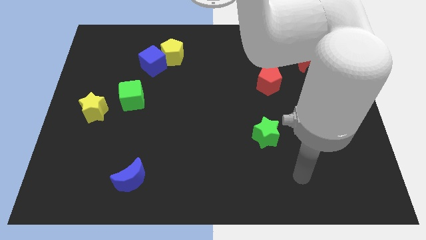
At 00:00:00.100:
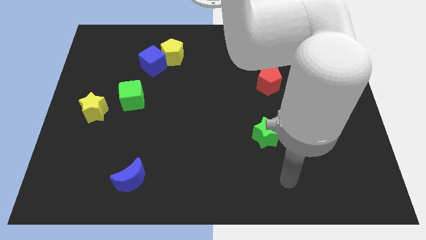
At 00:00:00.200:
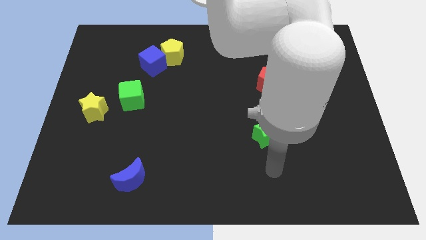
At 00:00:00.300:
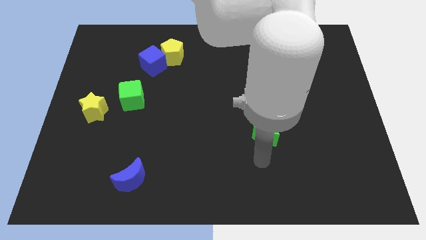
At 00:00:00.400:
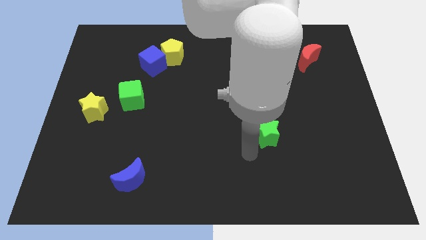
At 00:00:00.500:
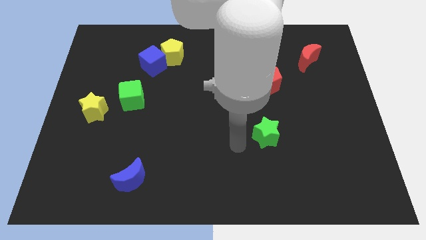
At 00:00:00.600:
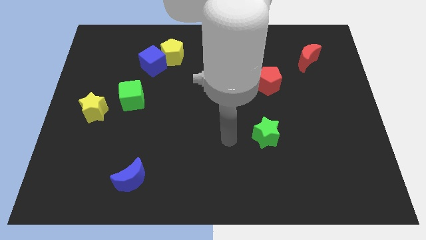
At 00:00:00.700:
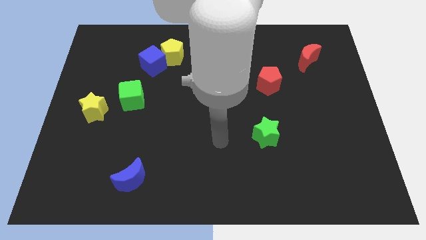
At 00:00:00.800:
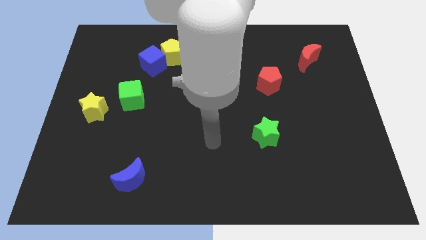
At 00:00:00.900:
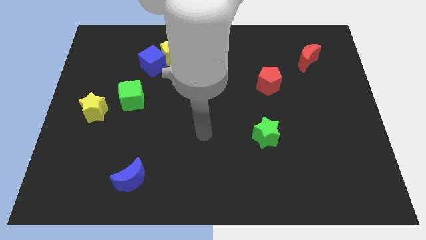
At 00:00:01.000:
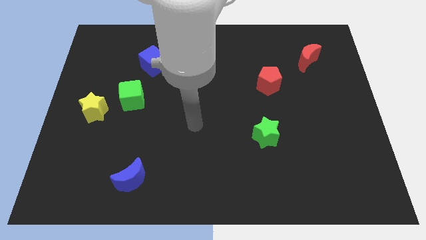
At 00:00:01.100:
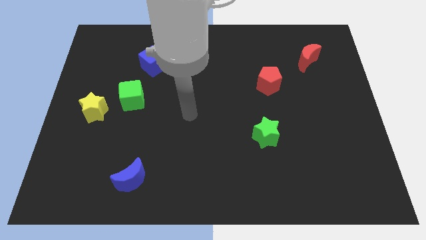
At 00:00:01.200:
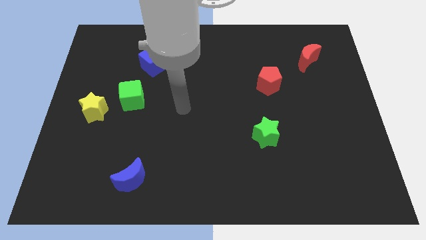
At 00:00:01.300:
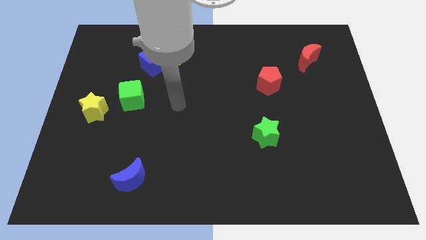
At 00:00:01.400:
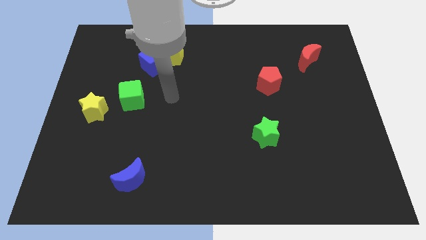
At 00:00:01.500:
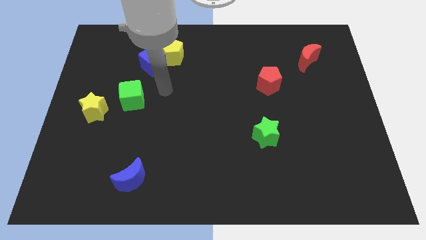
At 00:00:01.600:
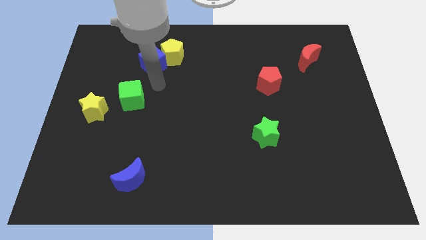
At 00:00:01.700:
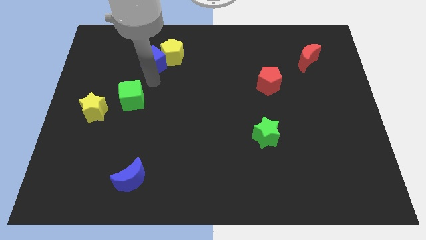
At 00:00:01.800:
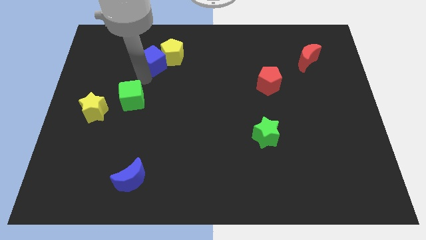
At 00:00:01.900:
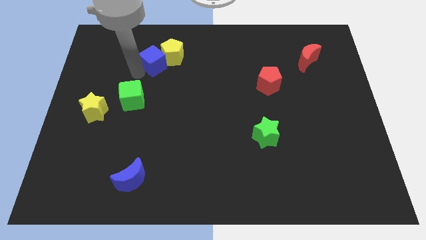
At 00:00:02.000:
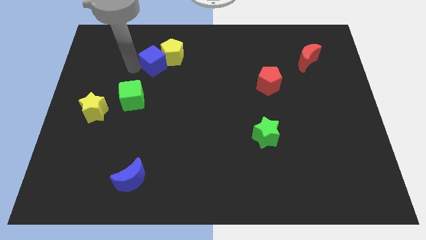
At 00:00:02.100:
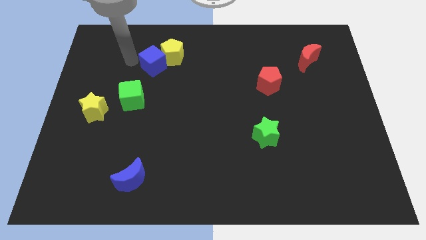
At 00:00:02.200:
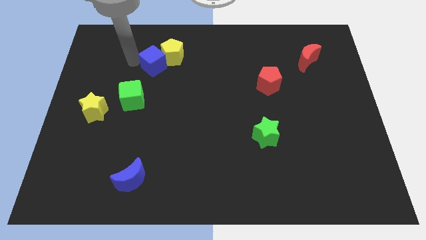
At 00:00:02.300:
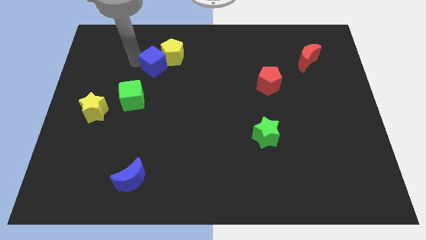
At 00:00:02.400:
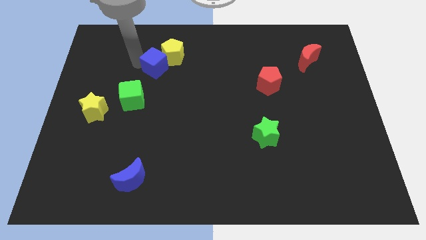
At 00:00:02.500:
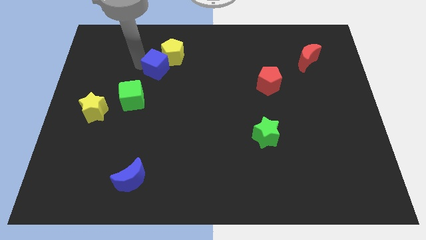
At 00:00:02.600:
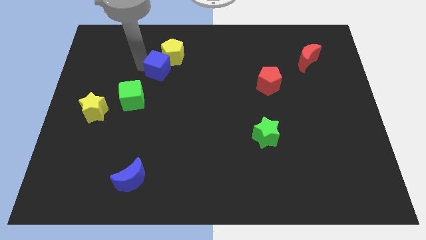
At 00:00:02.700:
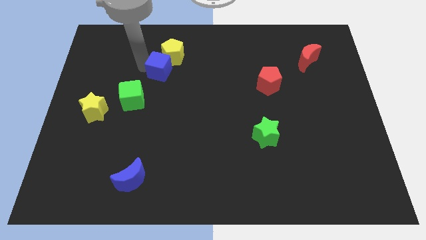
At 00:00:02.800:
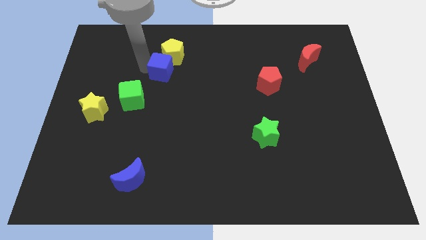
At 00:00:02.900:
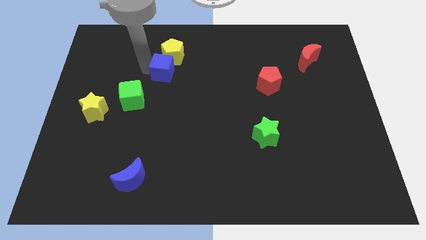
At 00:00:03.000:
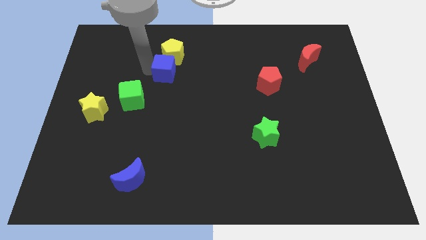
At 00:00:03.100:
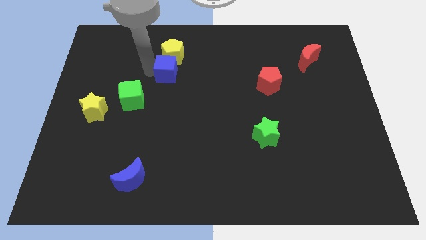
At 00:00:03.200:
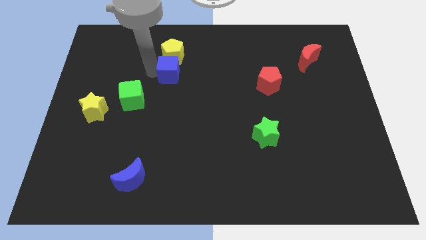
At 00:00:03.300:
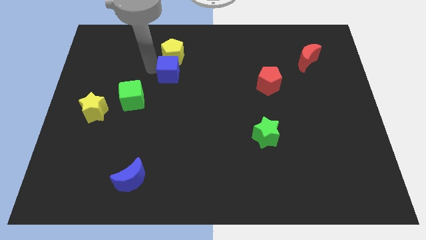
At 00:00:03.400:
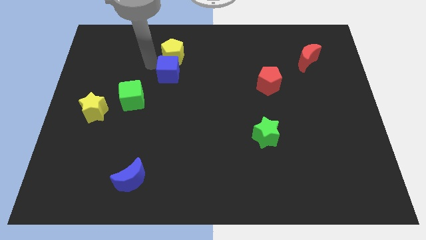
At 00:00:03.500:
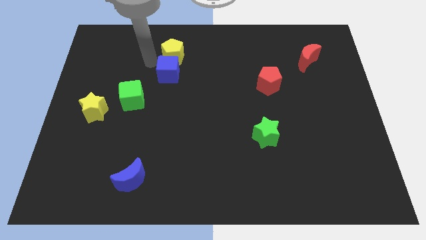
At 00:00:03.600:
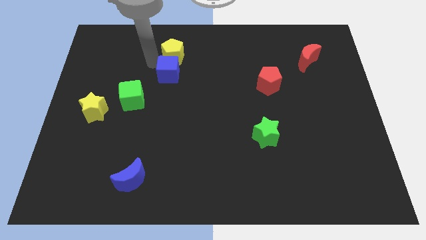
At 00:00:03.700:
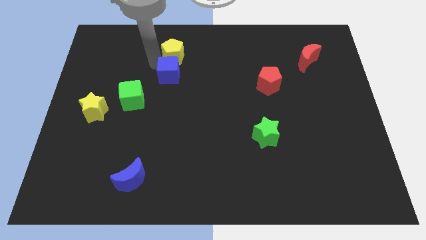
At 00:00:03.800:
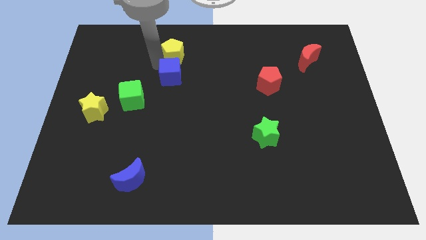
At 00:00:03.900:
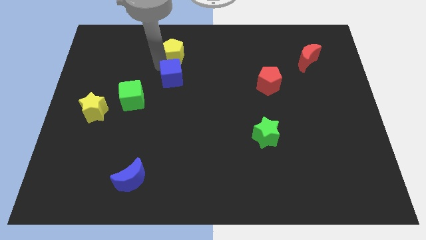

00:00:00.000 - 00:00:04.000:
move the blue cube downwards and to the right somewhat

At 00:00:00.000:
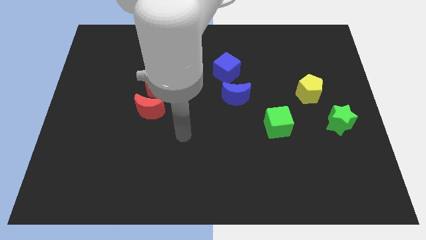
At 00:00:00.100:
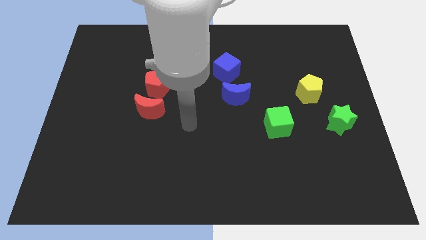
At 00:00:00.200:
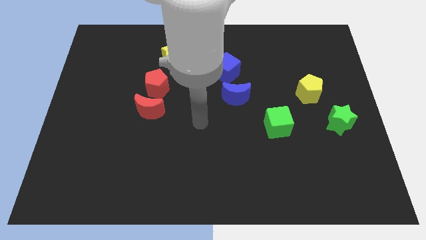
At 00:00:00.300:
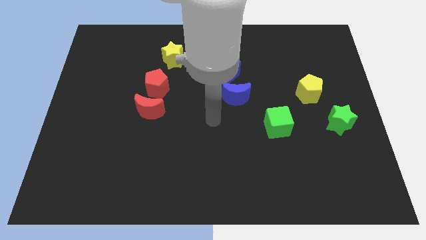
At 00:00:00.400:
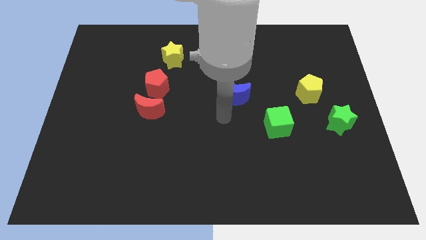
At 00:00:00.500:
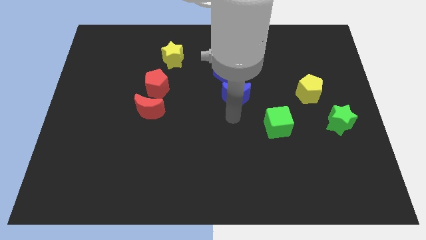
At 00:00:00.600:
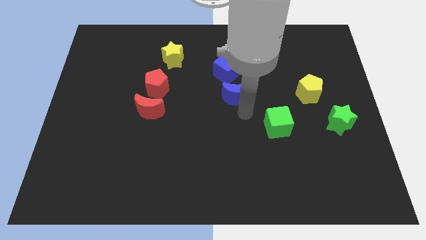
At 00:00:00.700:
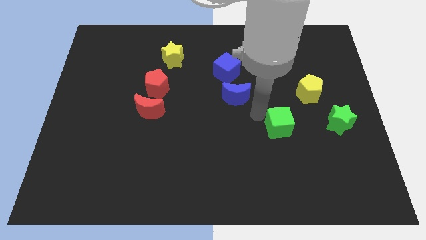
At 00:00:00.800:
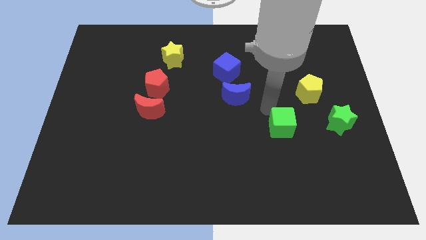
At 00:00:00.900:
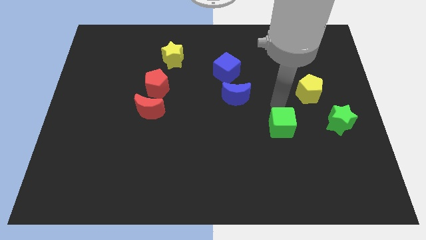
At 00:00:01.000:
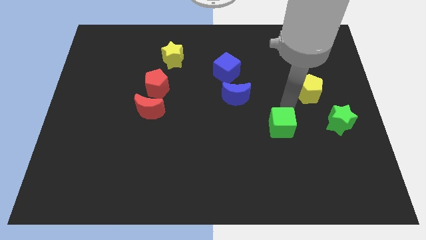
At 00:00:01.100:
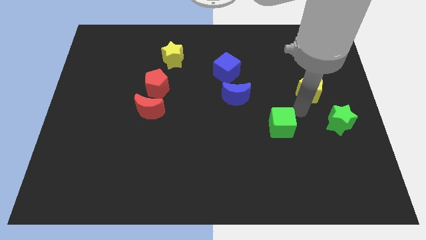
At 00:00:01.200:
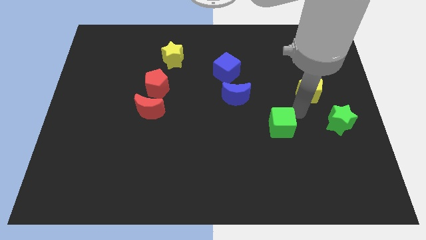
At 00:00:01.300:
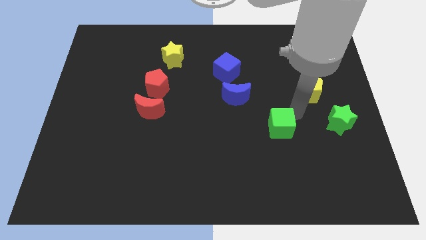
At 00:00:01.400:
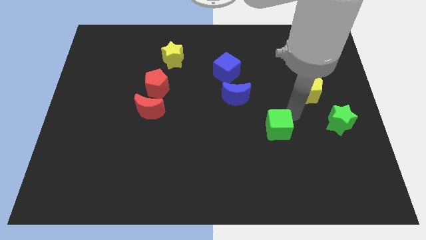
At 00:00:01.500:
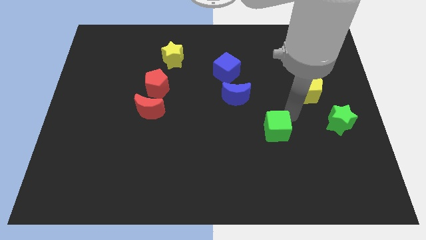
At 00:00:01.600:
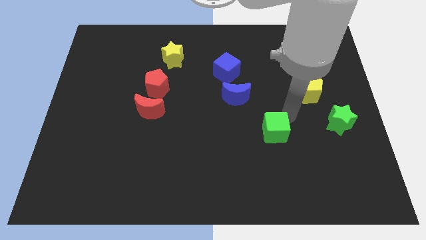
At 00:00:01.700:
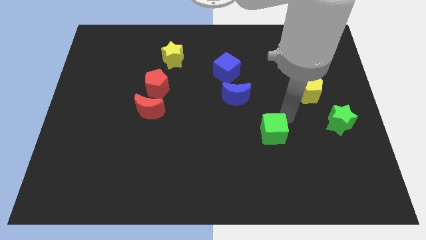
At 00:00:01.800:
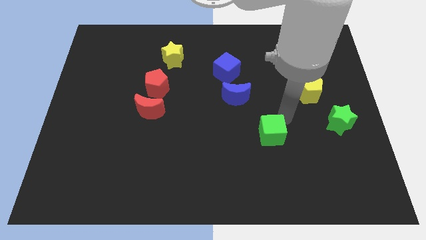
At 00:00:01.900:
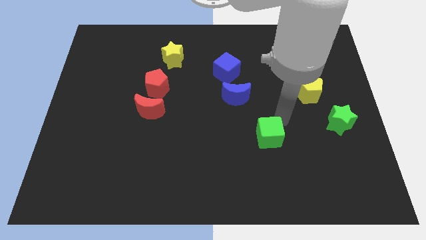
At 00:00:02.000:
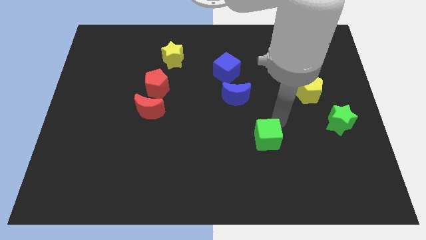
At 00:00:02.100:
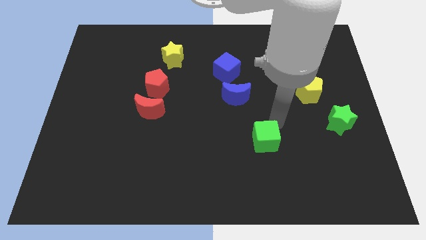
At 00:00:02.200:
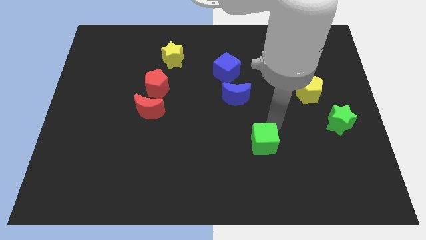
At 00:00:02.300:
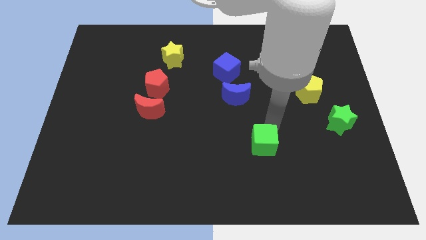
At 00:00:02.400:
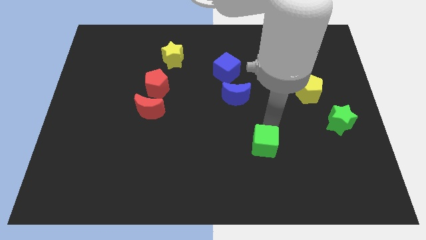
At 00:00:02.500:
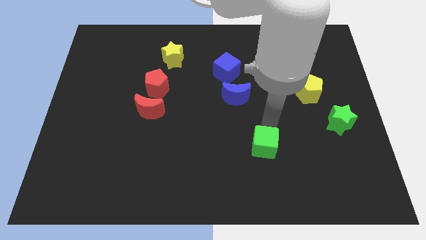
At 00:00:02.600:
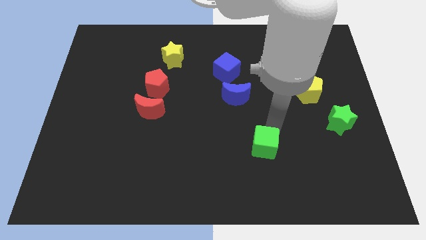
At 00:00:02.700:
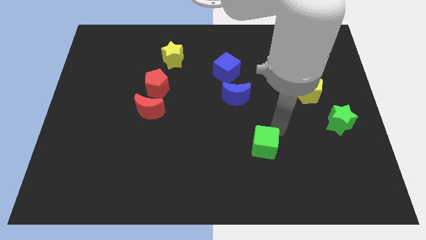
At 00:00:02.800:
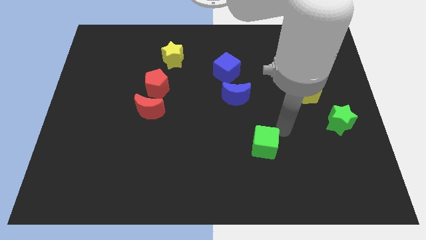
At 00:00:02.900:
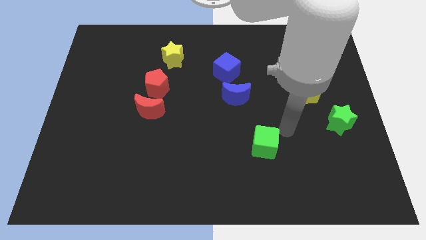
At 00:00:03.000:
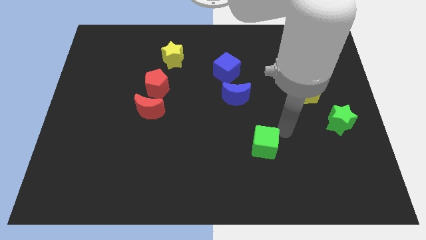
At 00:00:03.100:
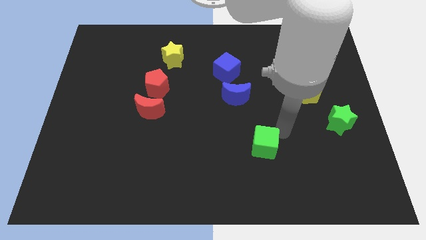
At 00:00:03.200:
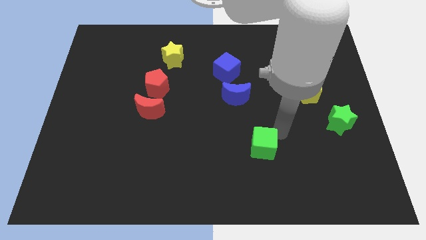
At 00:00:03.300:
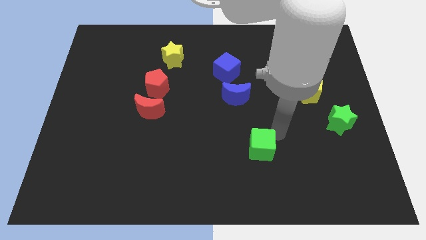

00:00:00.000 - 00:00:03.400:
slightly slide the green cube diagonally down and left

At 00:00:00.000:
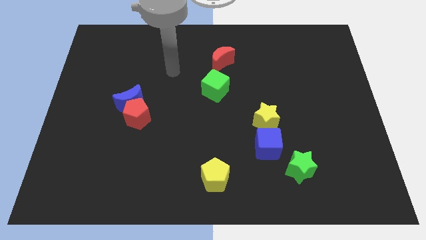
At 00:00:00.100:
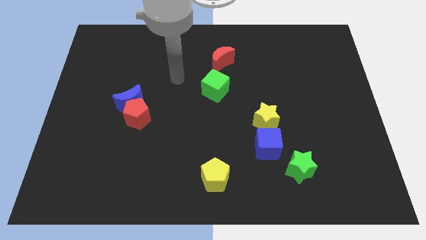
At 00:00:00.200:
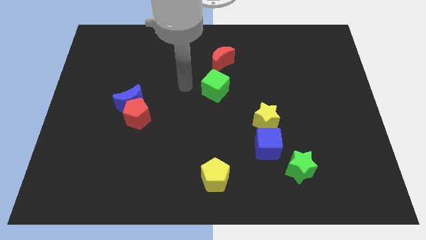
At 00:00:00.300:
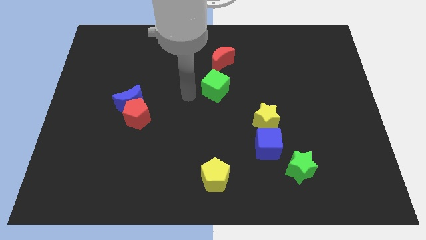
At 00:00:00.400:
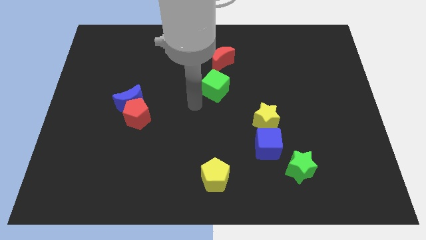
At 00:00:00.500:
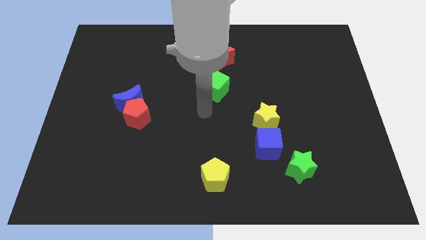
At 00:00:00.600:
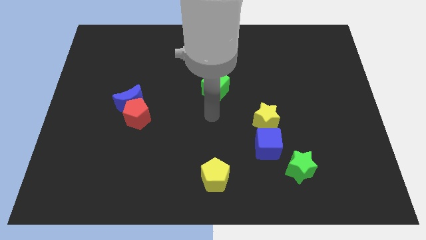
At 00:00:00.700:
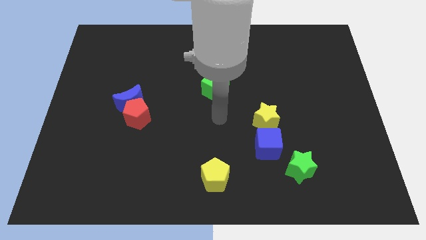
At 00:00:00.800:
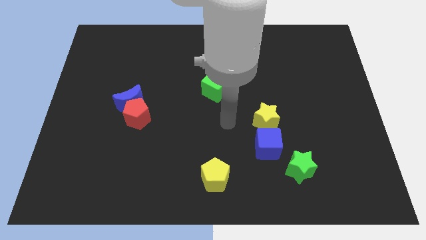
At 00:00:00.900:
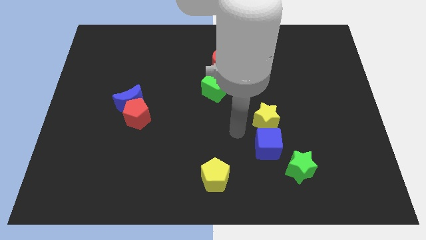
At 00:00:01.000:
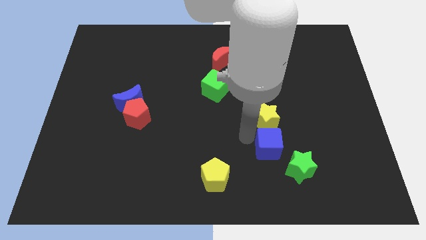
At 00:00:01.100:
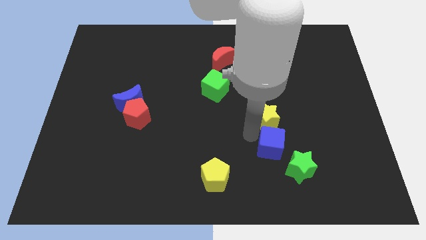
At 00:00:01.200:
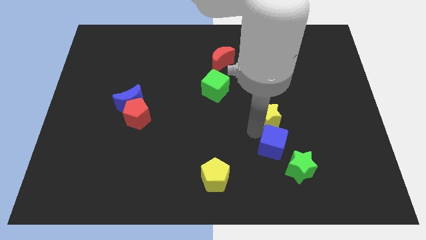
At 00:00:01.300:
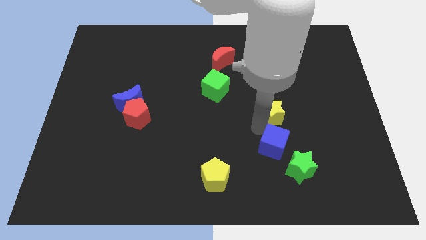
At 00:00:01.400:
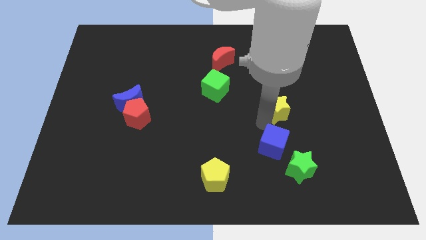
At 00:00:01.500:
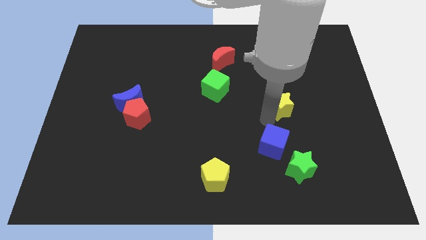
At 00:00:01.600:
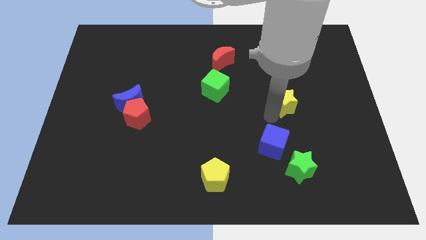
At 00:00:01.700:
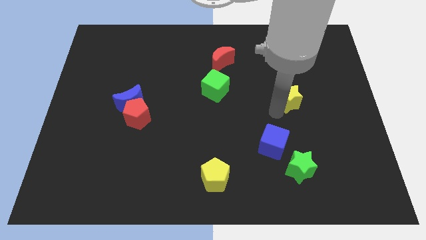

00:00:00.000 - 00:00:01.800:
push the yellow star diagonally up and to the right a bit
